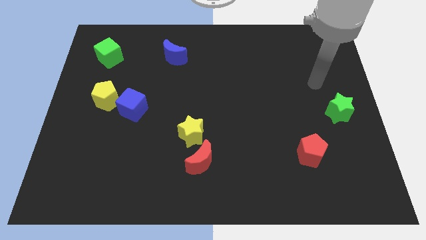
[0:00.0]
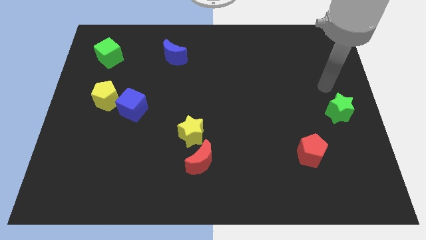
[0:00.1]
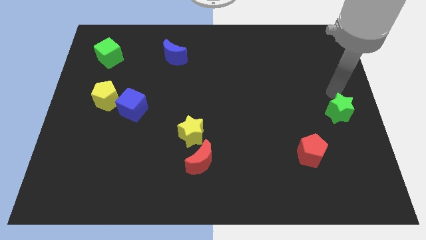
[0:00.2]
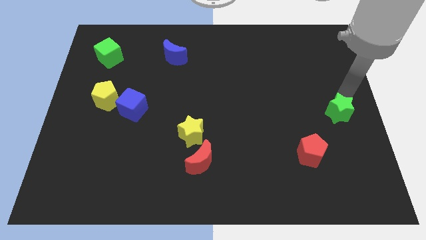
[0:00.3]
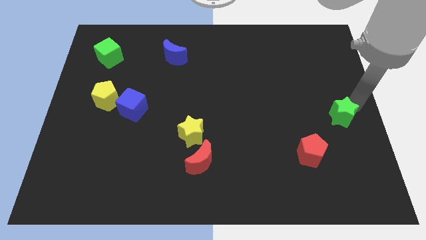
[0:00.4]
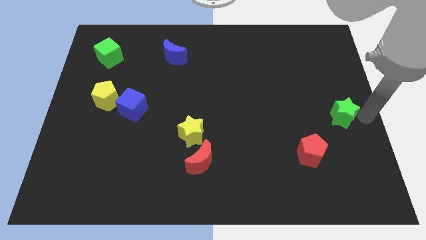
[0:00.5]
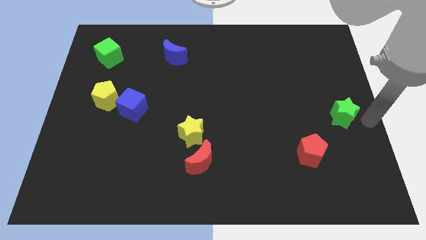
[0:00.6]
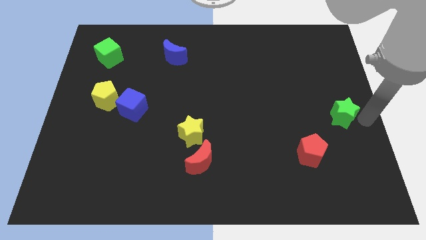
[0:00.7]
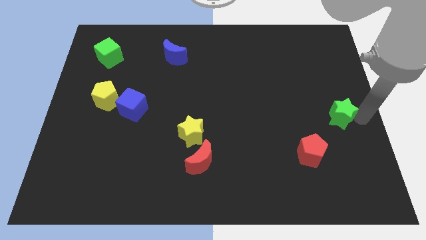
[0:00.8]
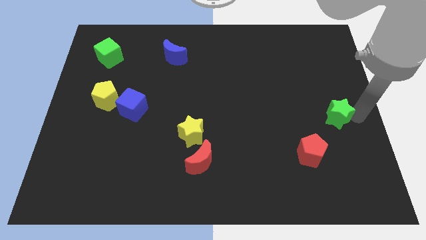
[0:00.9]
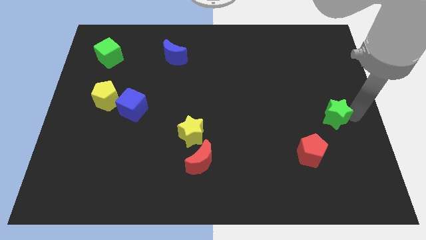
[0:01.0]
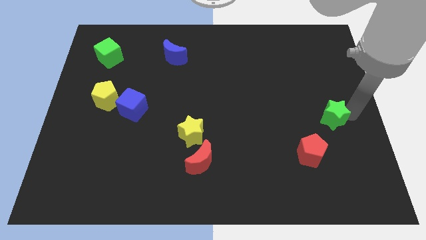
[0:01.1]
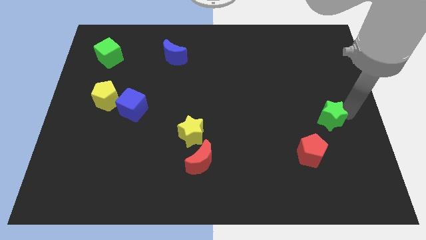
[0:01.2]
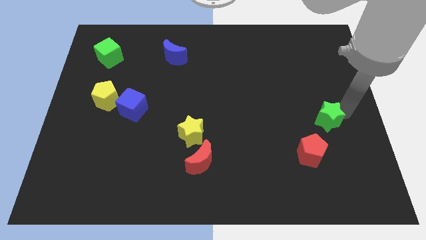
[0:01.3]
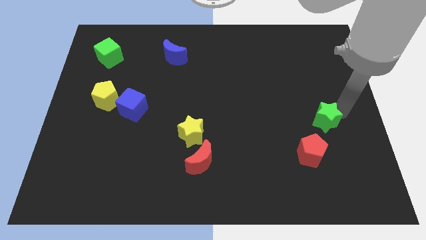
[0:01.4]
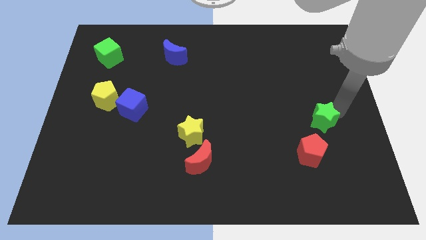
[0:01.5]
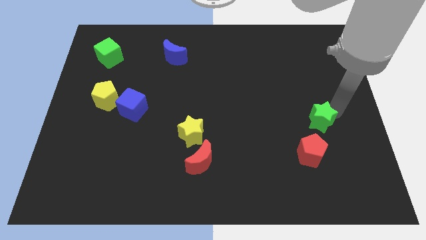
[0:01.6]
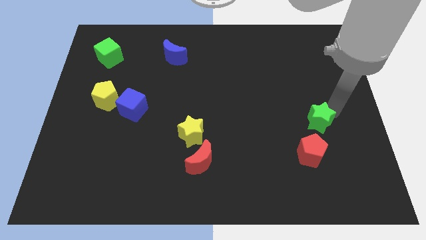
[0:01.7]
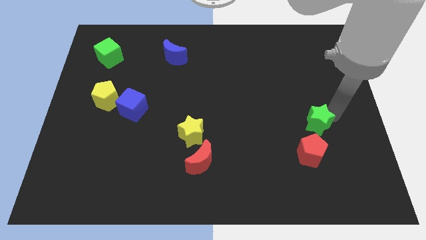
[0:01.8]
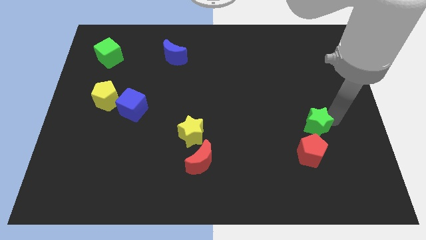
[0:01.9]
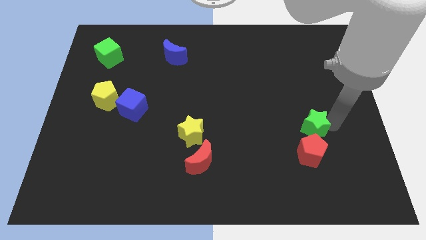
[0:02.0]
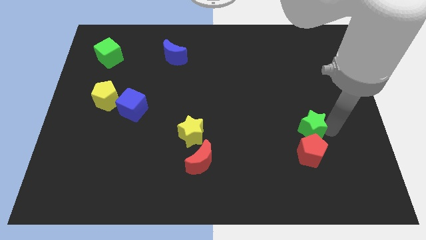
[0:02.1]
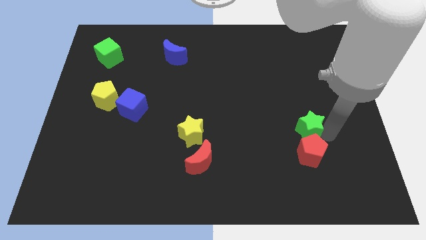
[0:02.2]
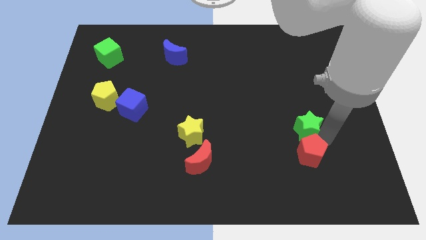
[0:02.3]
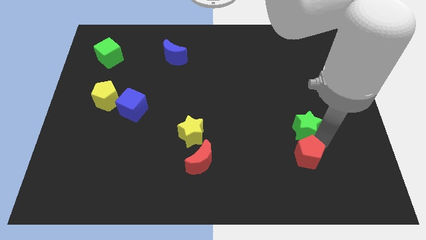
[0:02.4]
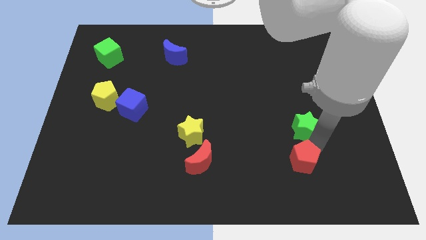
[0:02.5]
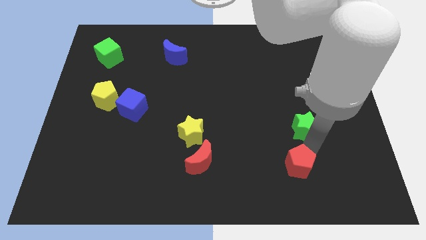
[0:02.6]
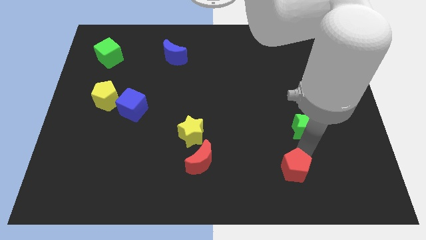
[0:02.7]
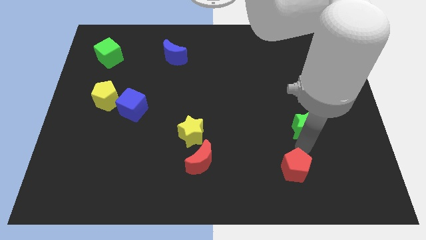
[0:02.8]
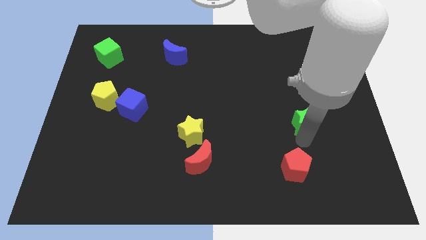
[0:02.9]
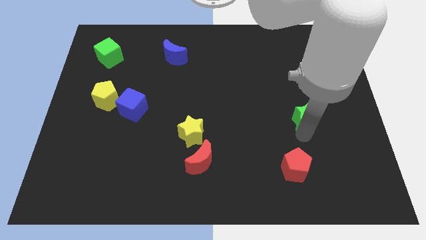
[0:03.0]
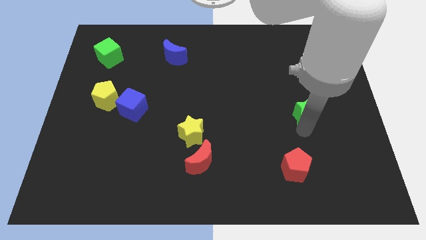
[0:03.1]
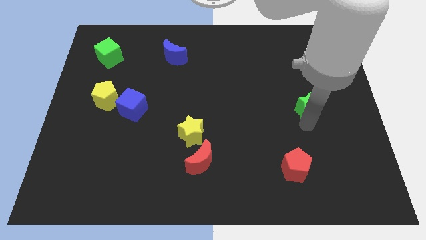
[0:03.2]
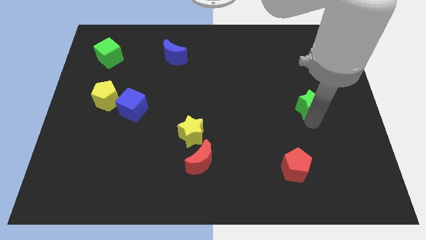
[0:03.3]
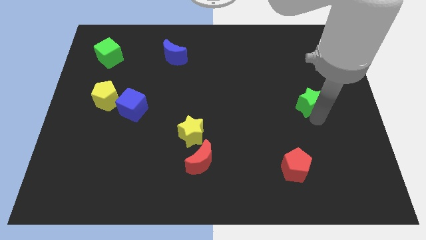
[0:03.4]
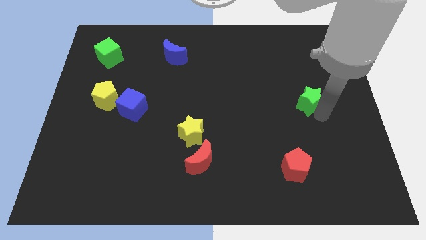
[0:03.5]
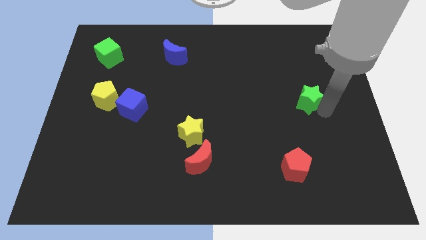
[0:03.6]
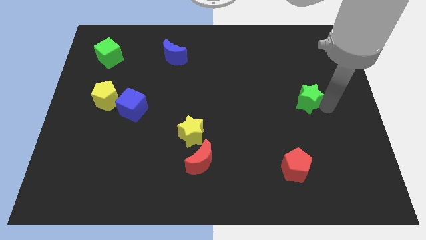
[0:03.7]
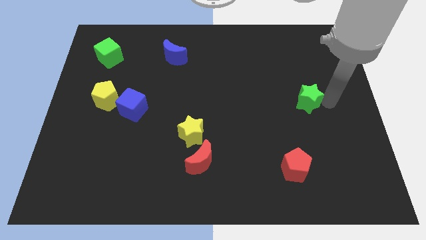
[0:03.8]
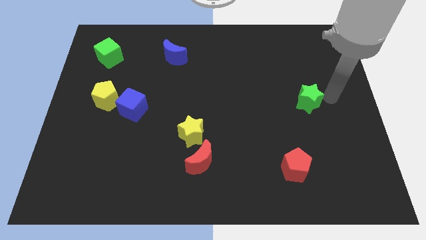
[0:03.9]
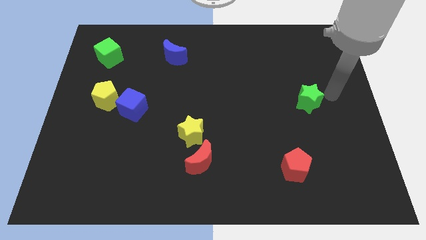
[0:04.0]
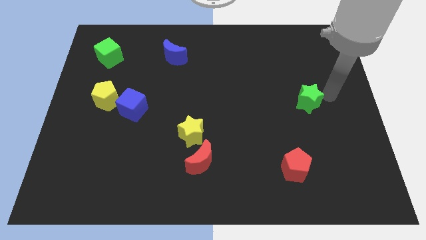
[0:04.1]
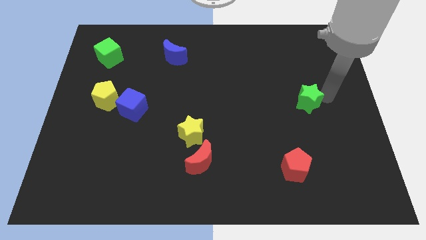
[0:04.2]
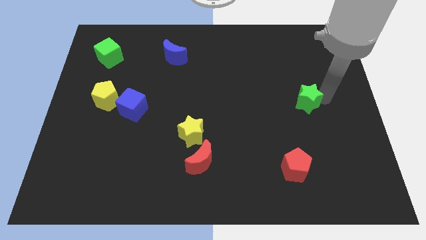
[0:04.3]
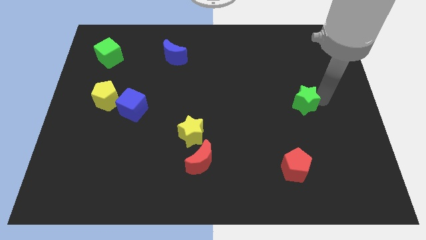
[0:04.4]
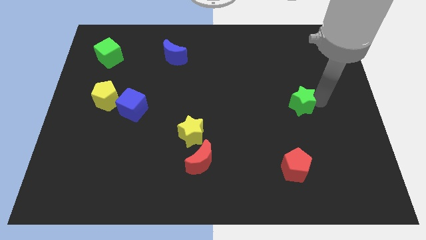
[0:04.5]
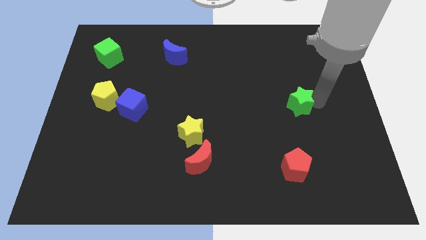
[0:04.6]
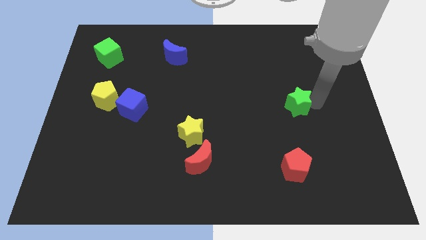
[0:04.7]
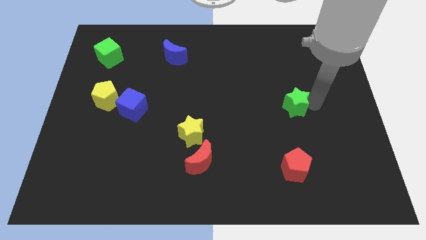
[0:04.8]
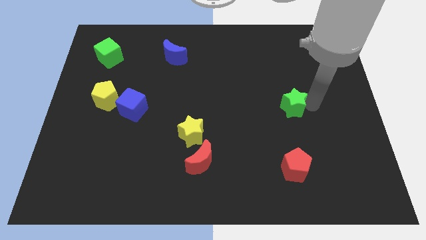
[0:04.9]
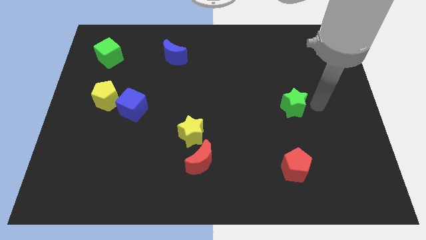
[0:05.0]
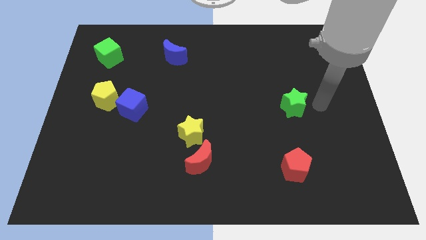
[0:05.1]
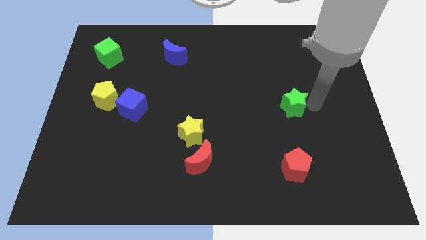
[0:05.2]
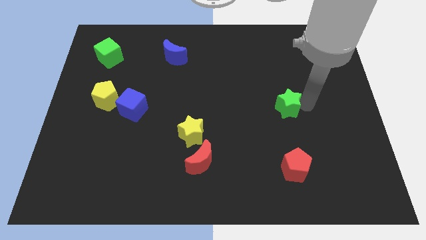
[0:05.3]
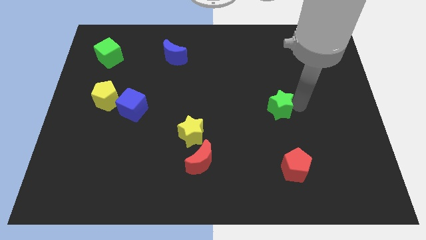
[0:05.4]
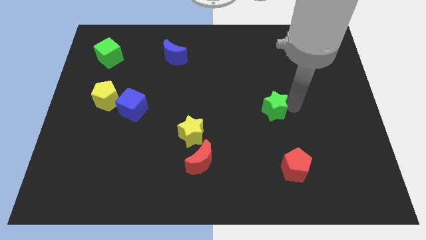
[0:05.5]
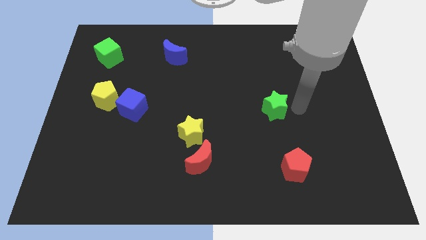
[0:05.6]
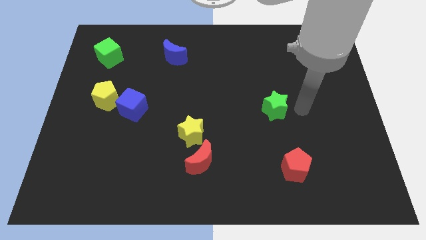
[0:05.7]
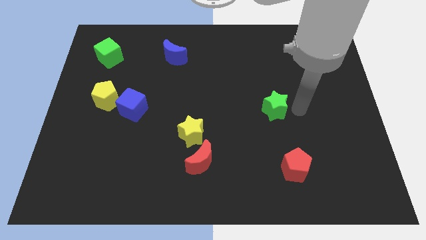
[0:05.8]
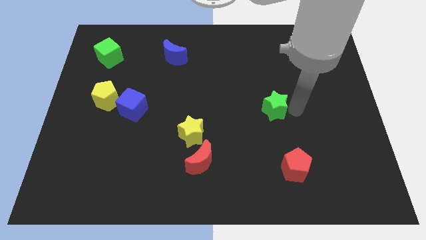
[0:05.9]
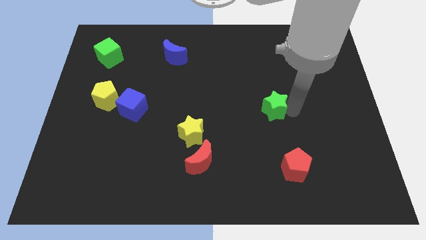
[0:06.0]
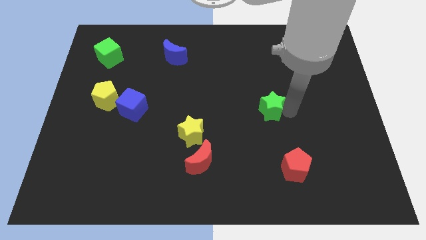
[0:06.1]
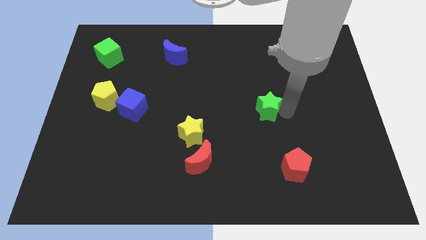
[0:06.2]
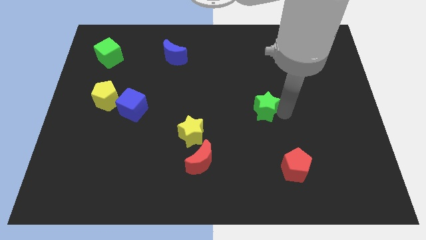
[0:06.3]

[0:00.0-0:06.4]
move the green star to the middle

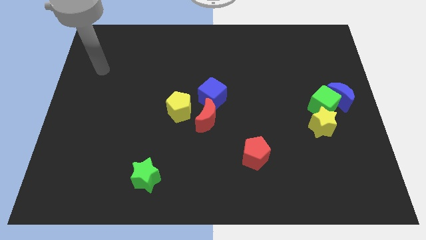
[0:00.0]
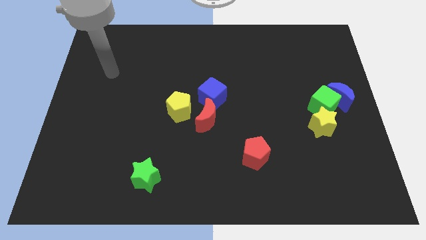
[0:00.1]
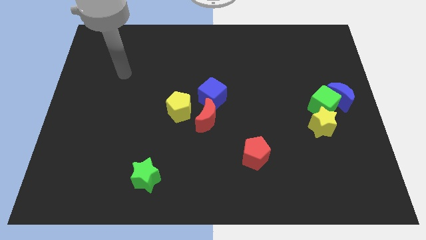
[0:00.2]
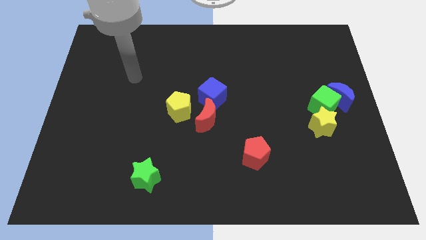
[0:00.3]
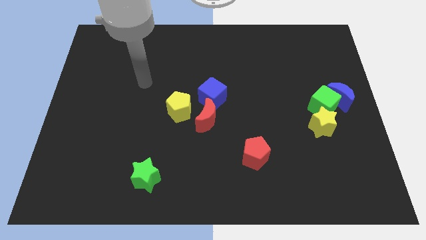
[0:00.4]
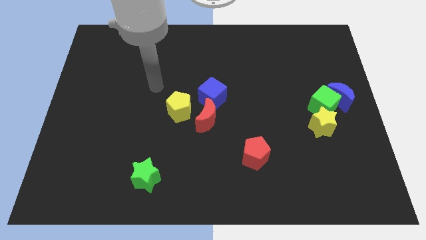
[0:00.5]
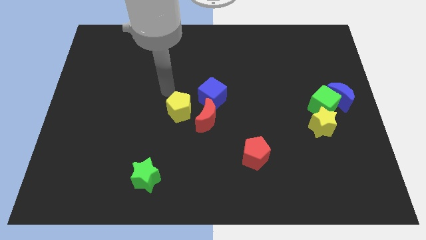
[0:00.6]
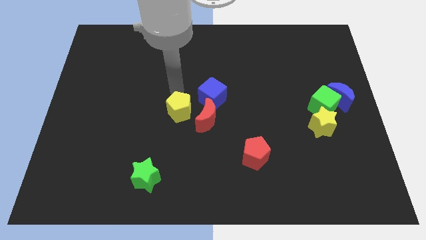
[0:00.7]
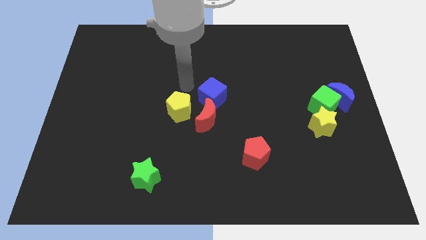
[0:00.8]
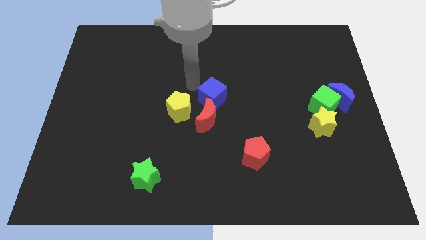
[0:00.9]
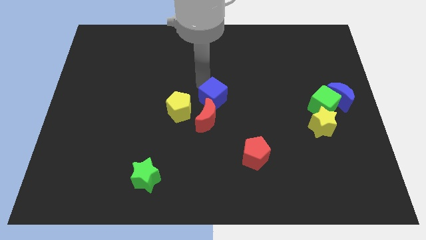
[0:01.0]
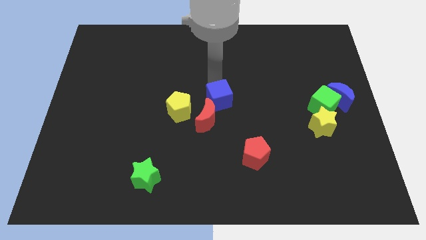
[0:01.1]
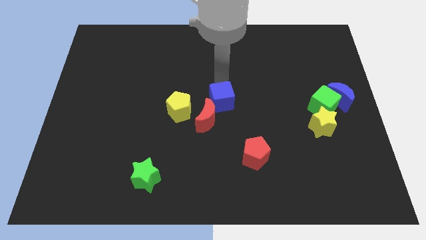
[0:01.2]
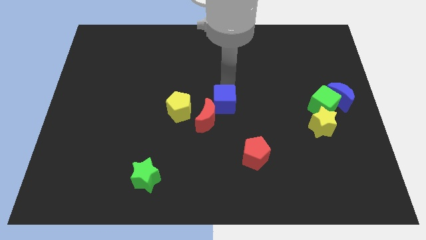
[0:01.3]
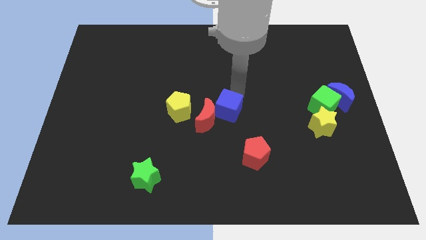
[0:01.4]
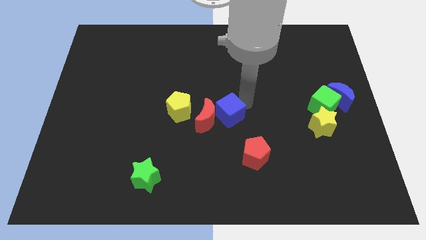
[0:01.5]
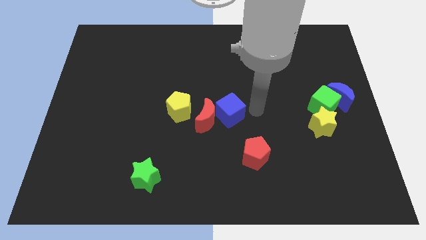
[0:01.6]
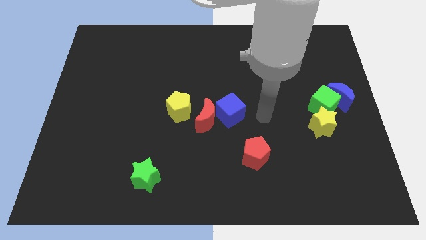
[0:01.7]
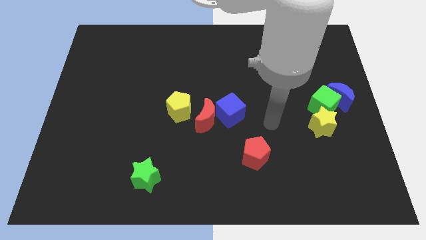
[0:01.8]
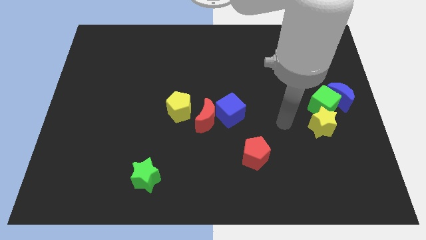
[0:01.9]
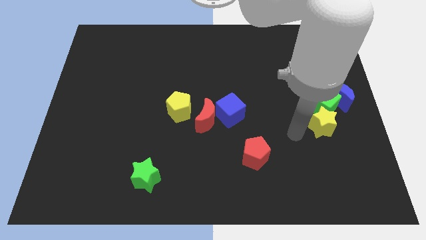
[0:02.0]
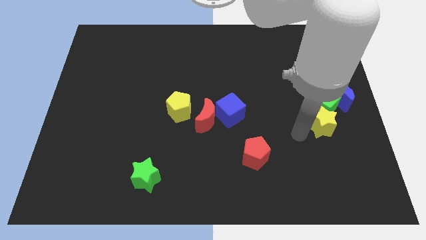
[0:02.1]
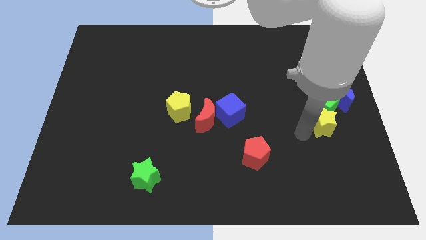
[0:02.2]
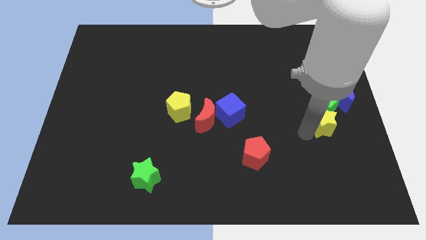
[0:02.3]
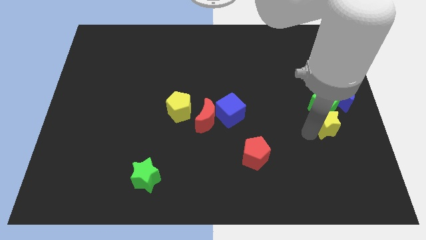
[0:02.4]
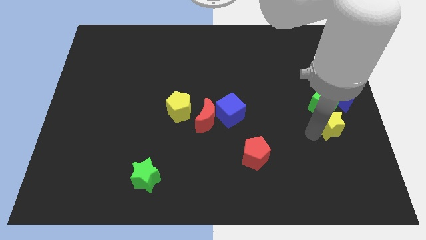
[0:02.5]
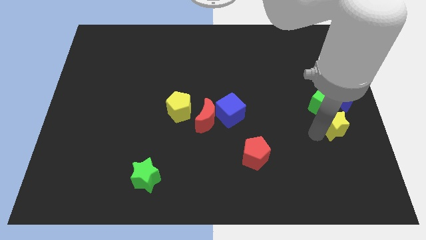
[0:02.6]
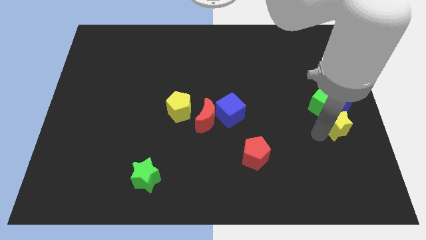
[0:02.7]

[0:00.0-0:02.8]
move the yellow star to the right side
